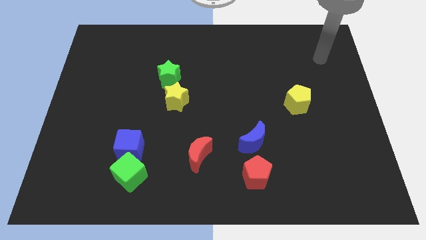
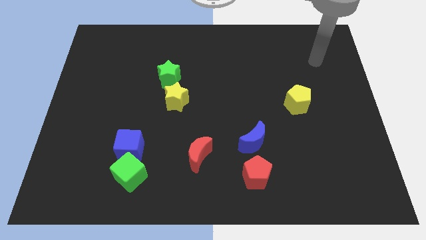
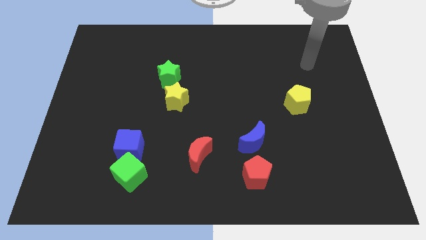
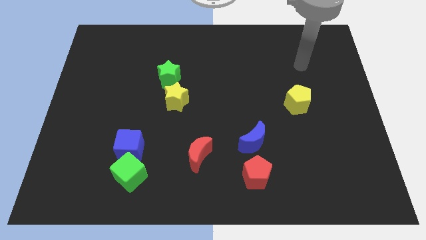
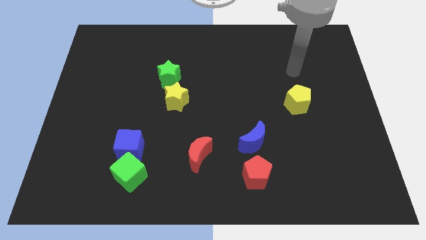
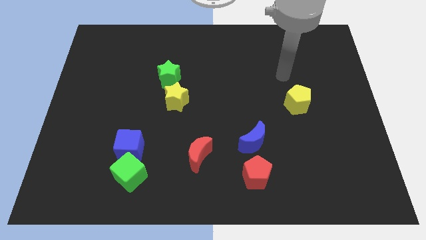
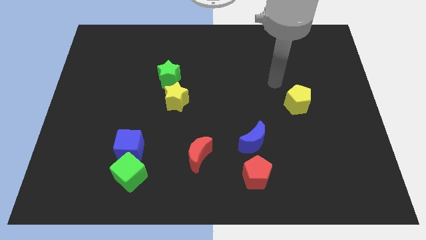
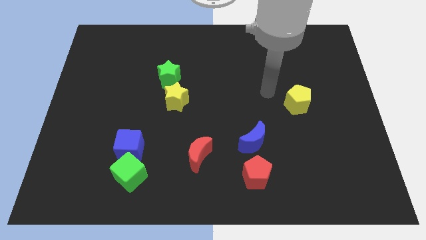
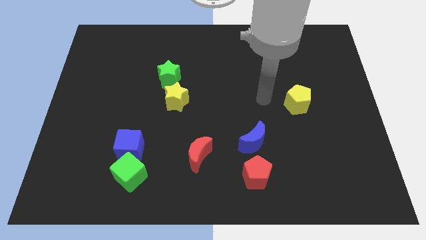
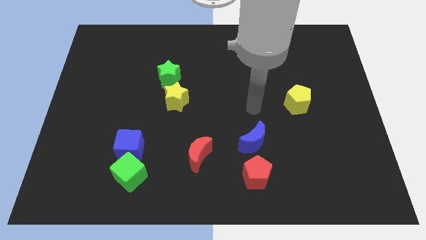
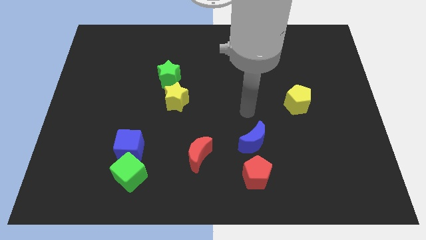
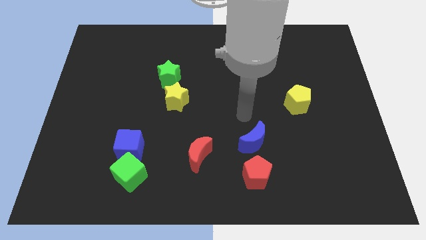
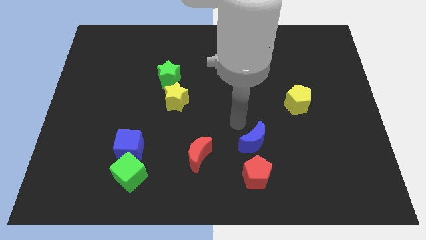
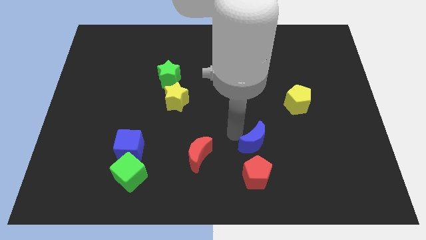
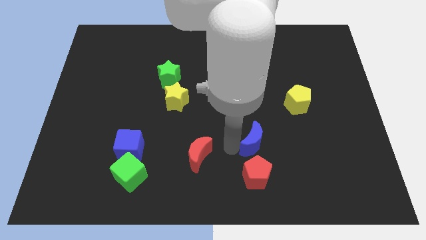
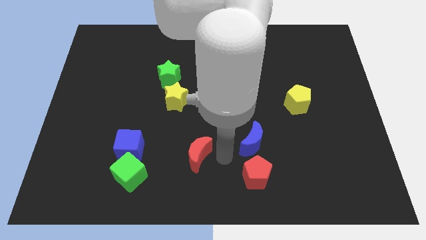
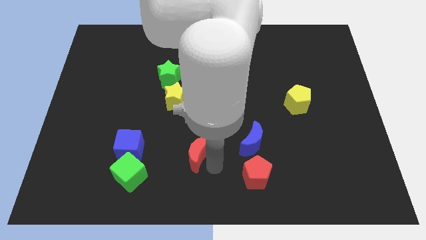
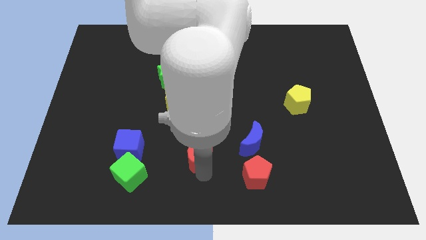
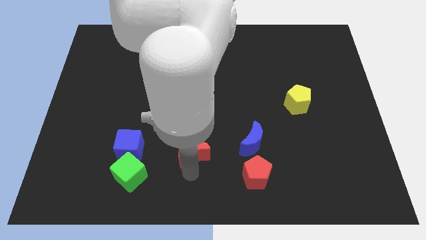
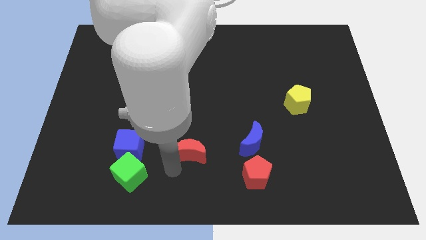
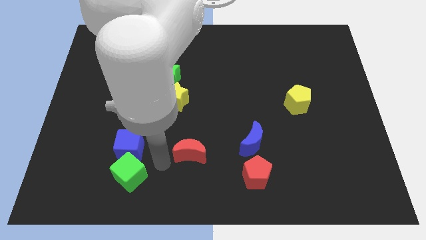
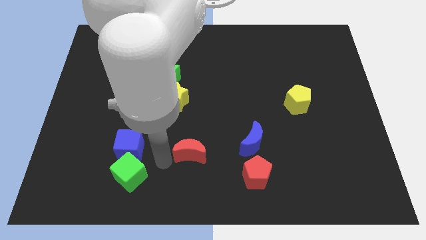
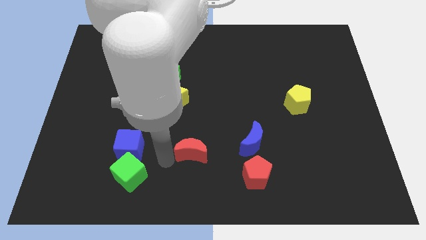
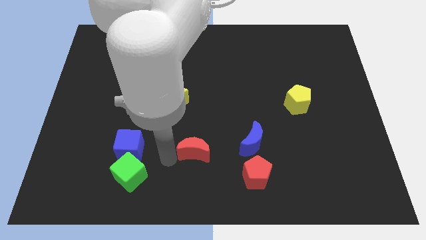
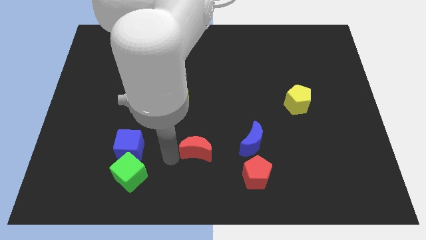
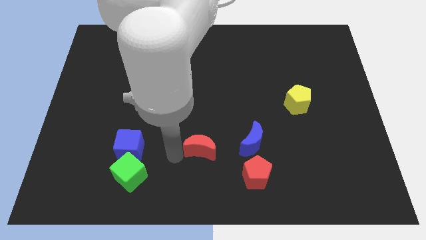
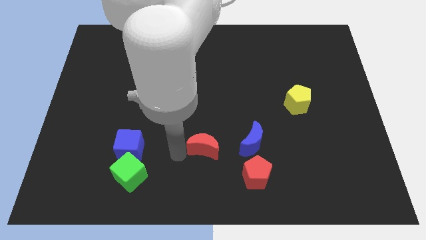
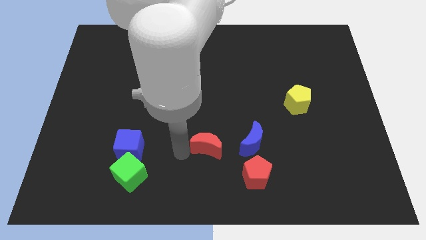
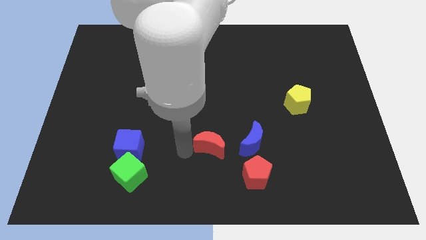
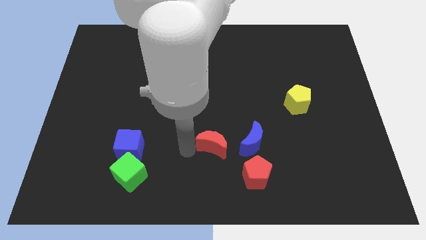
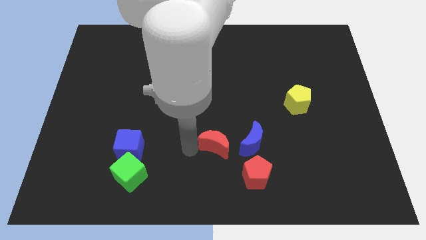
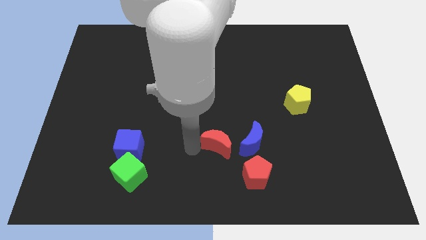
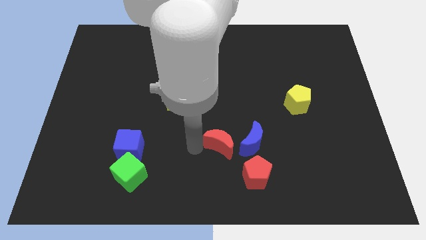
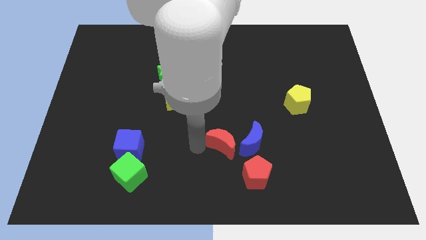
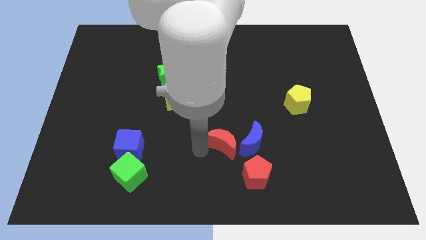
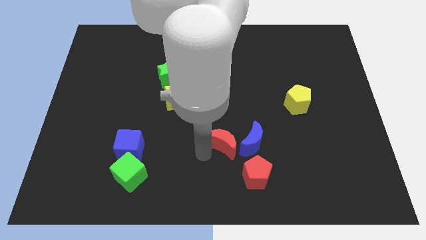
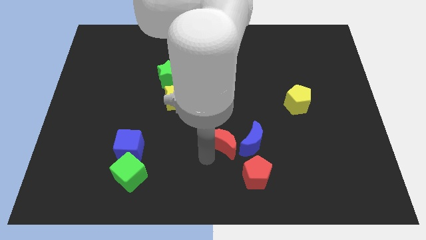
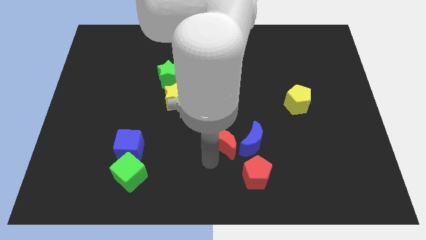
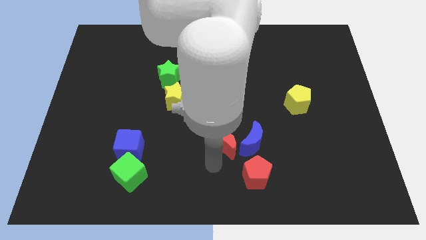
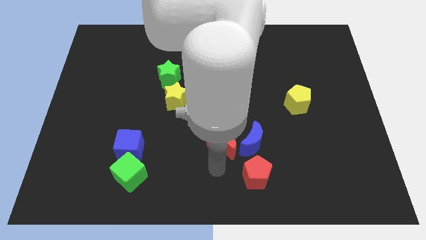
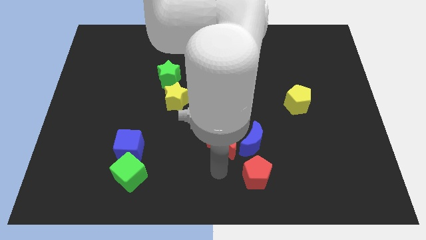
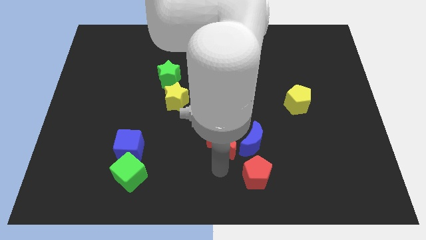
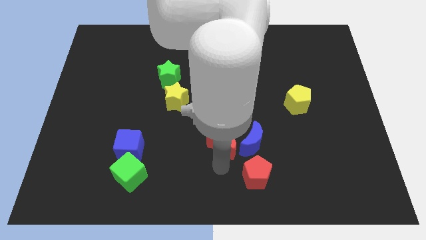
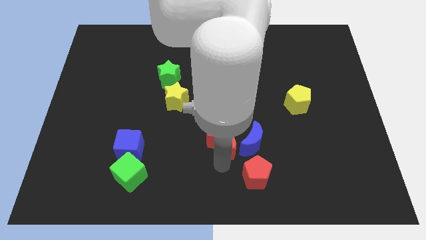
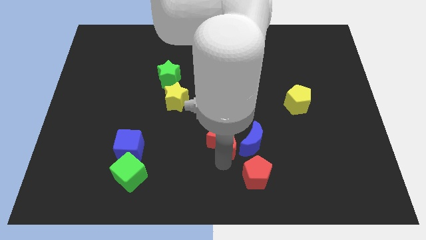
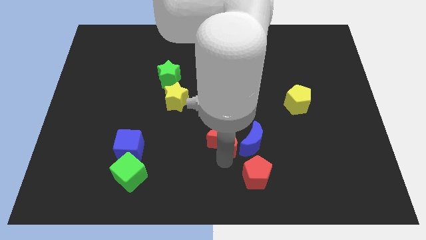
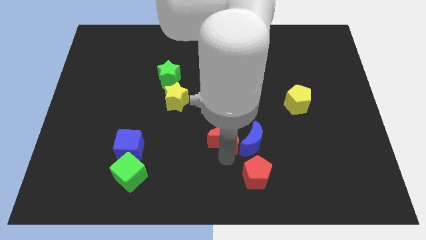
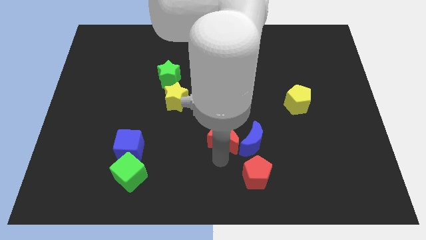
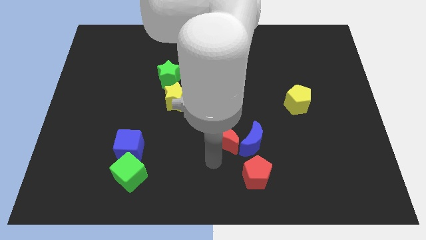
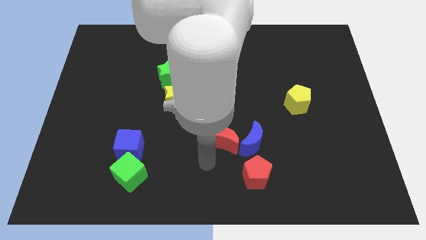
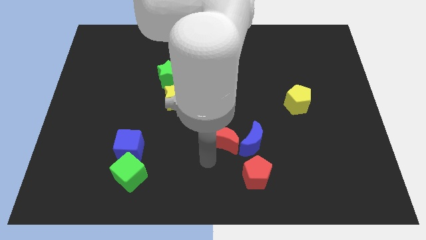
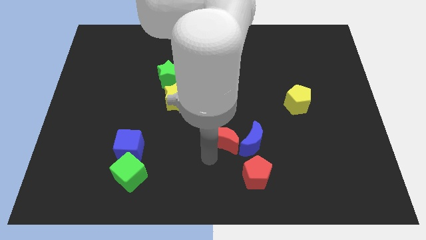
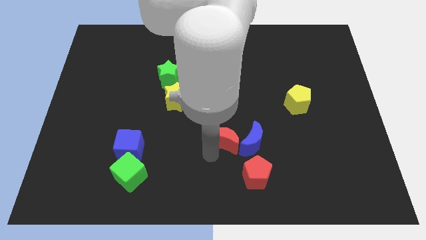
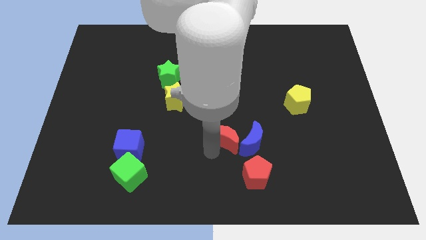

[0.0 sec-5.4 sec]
push the red moon up and to the right diagonally slightly

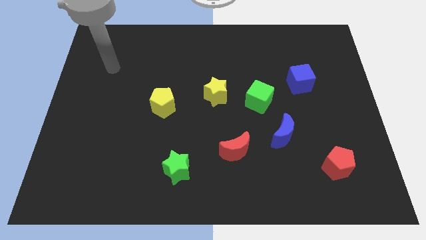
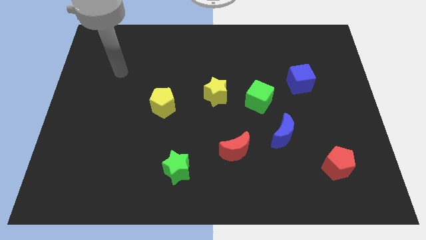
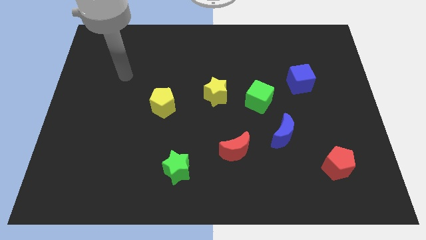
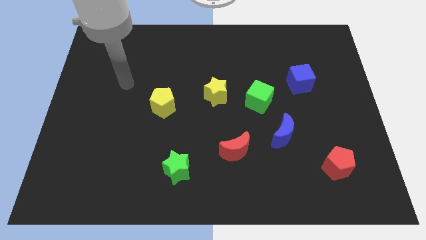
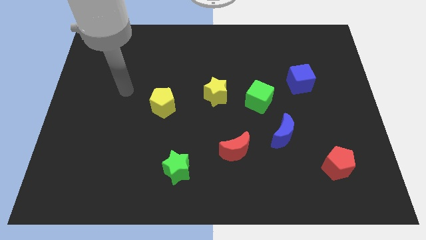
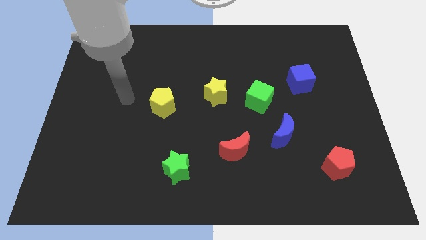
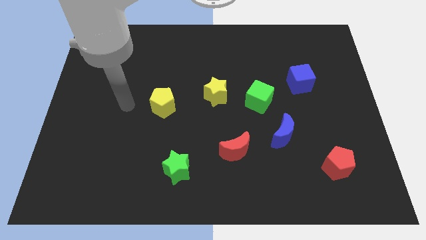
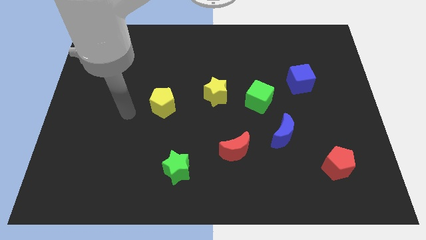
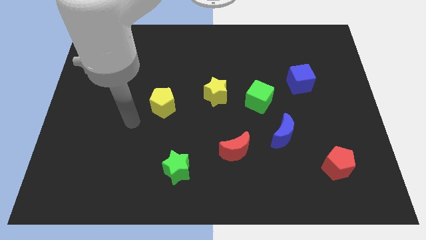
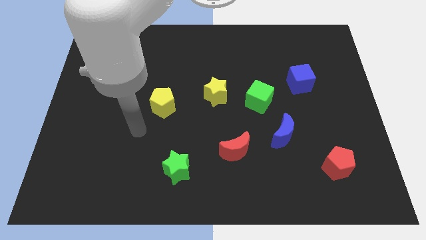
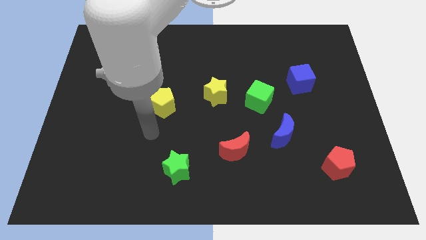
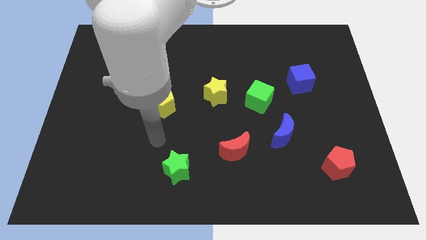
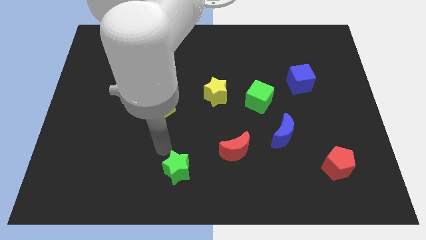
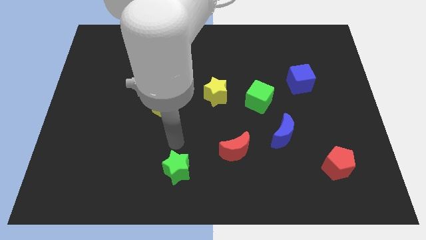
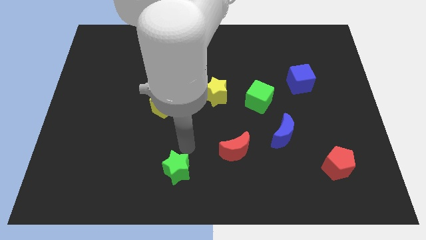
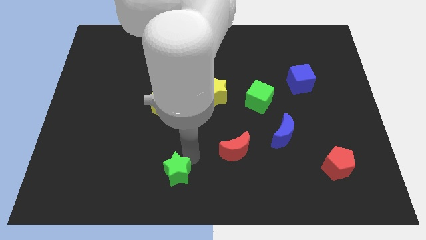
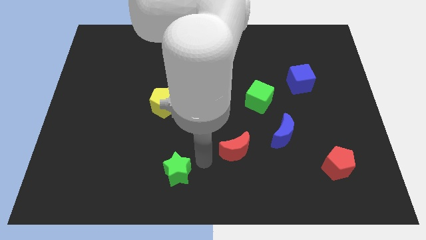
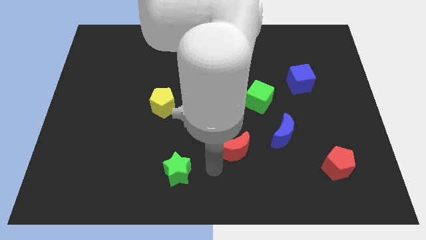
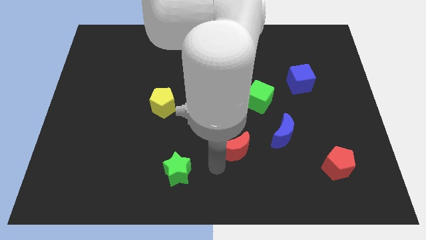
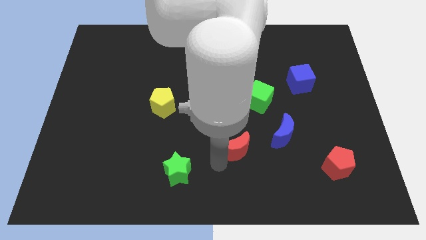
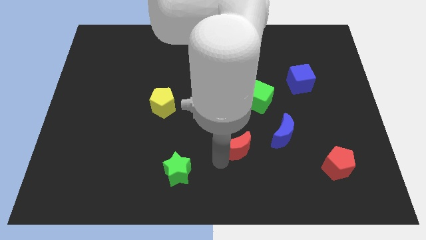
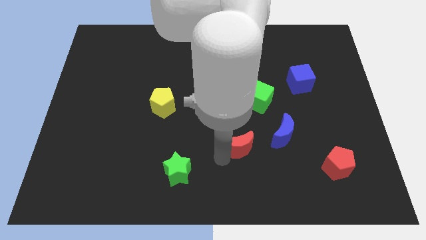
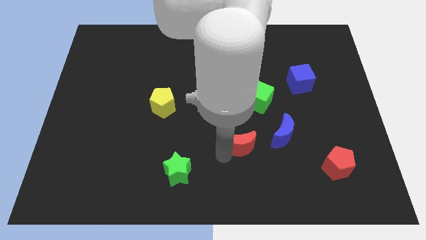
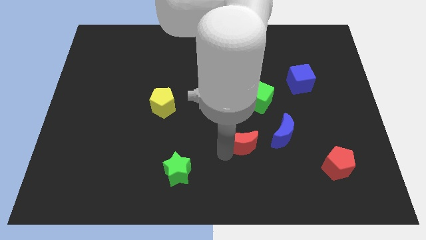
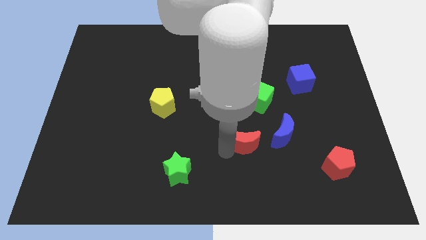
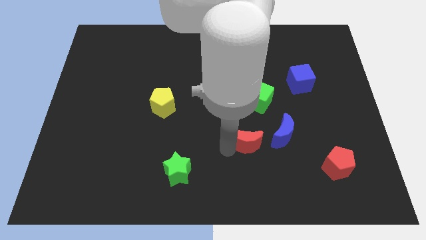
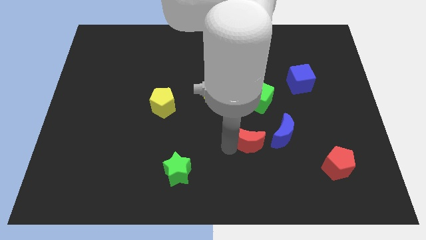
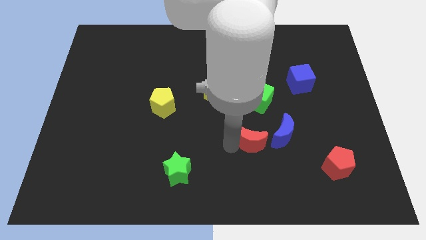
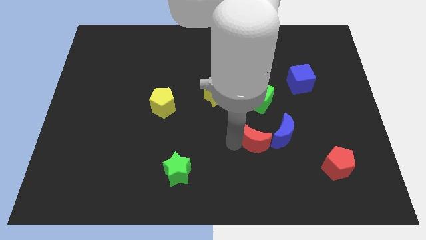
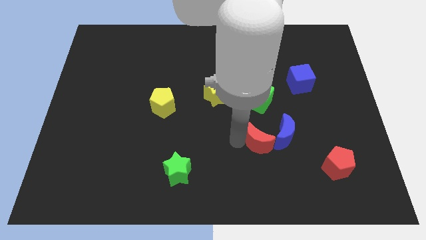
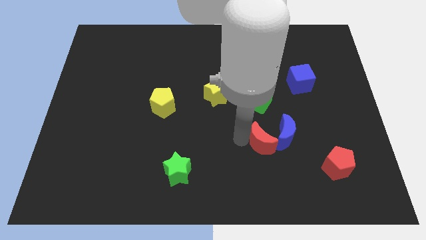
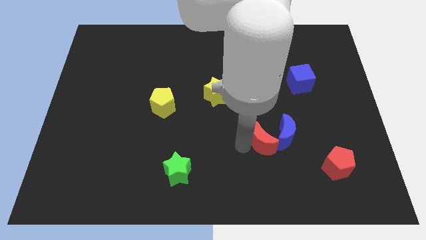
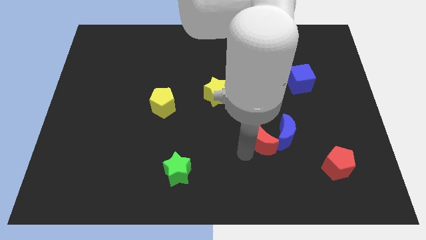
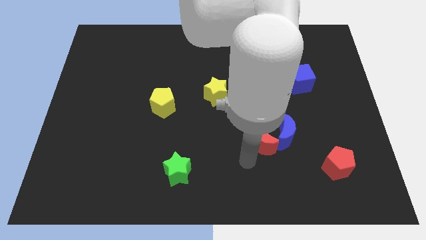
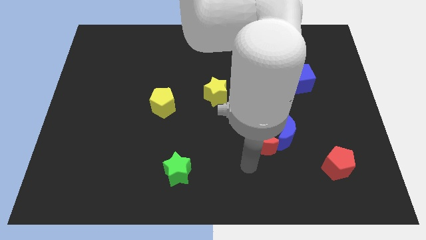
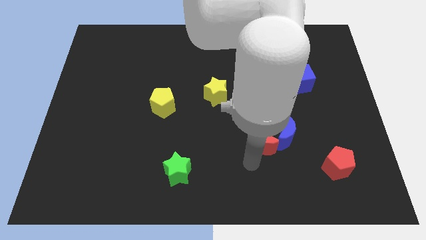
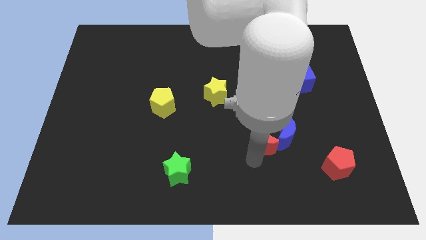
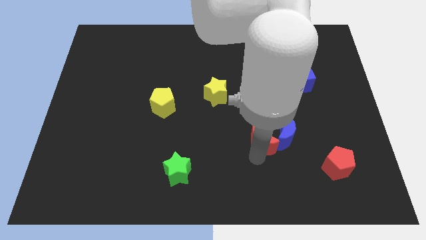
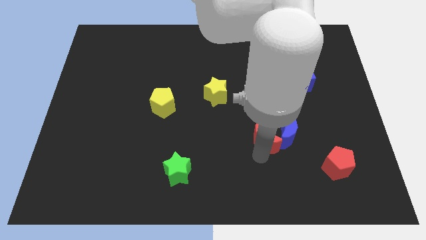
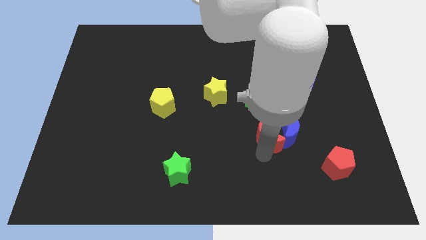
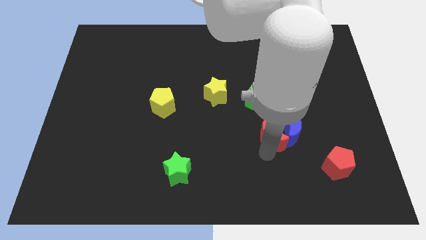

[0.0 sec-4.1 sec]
slightly push the red moon up and then to the right
